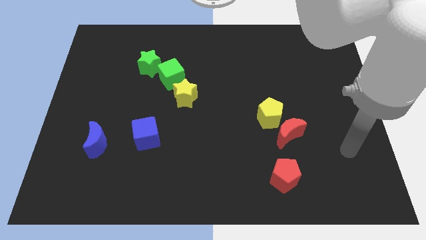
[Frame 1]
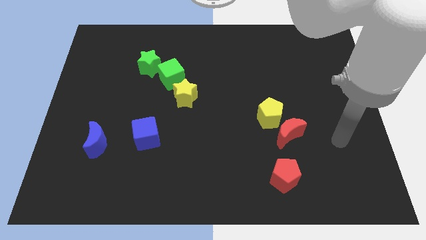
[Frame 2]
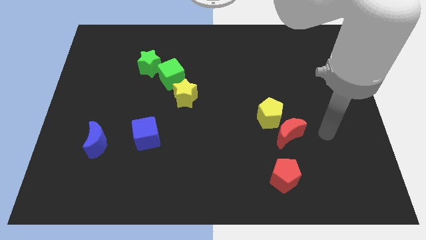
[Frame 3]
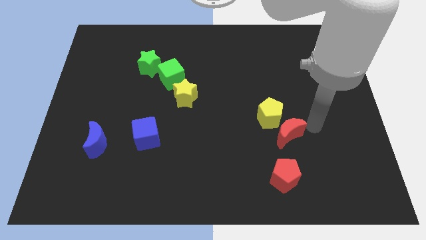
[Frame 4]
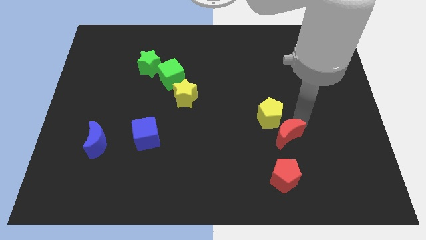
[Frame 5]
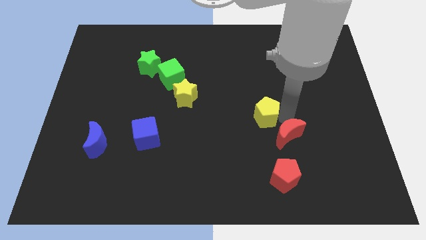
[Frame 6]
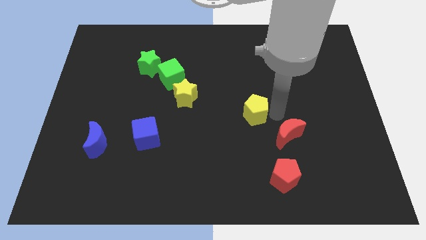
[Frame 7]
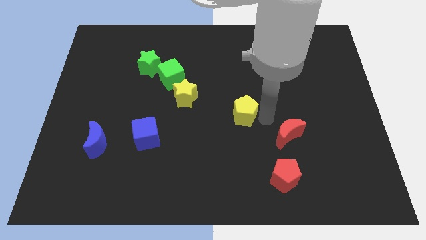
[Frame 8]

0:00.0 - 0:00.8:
separate the red moon from the yellow pentagon

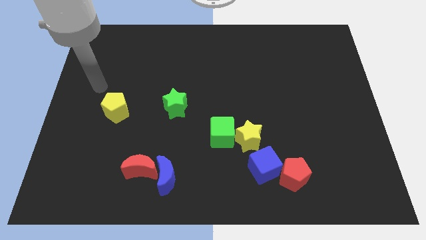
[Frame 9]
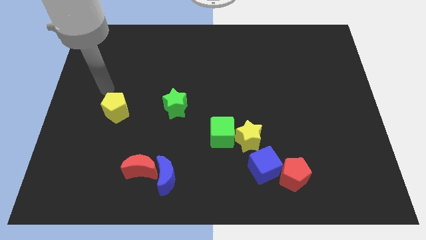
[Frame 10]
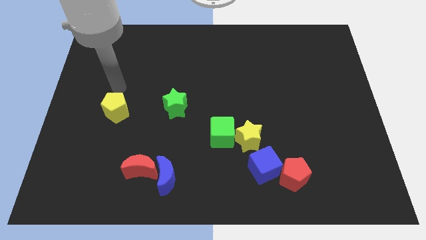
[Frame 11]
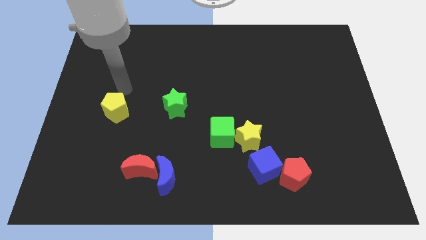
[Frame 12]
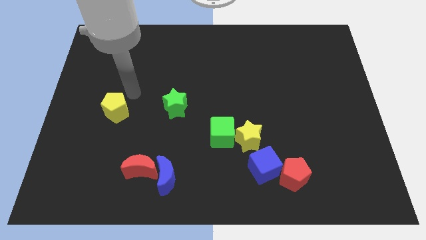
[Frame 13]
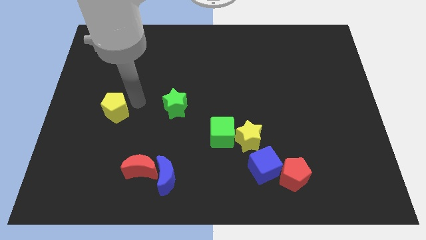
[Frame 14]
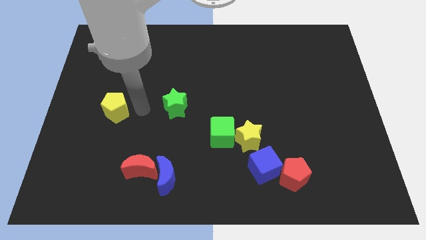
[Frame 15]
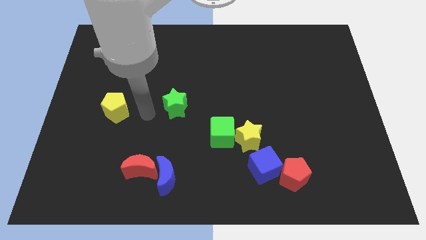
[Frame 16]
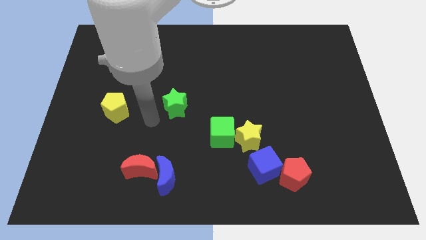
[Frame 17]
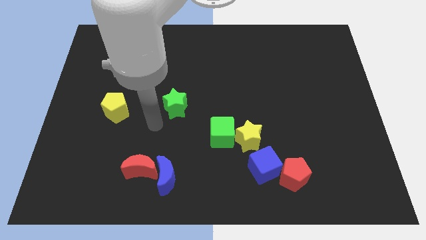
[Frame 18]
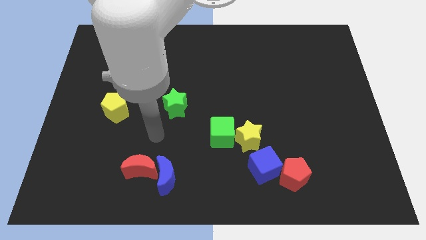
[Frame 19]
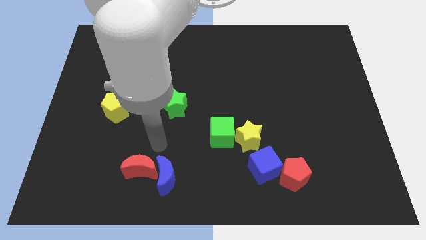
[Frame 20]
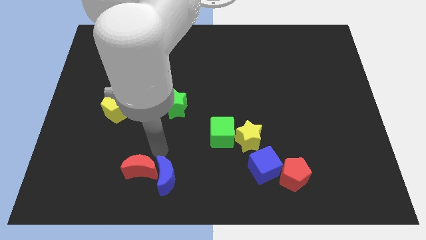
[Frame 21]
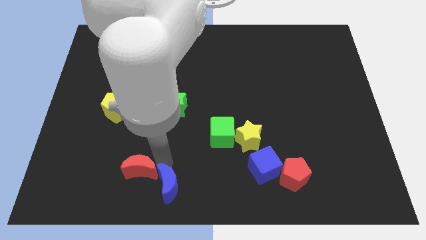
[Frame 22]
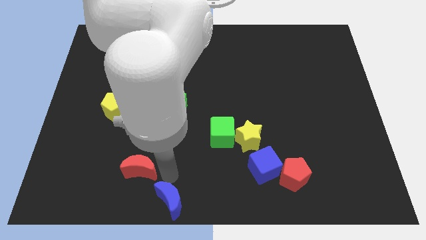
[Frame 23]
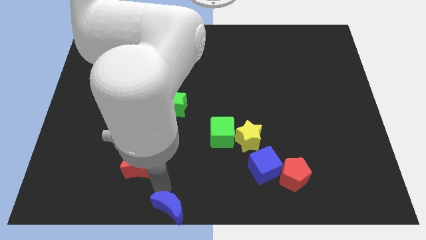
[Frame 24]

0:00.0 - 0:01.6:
separate the red moon from the blue moon

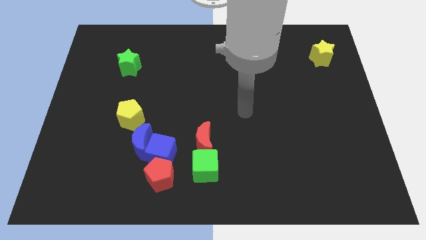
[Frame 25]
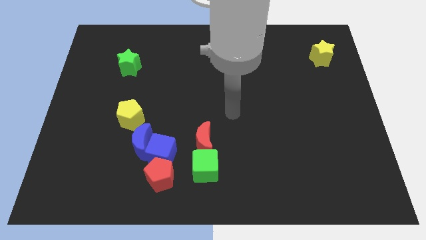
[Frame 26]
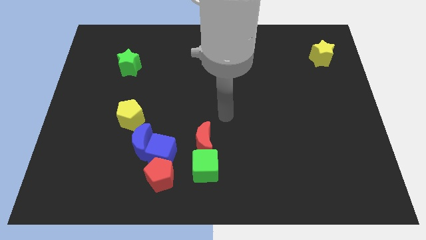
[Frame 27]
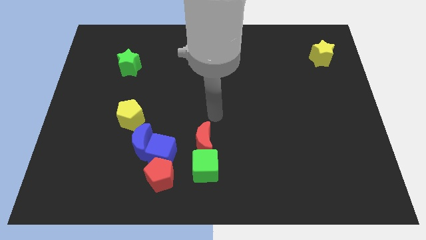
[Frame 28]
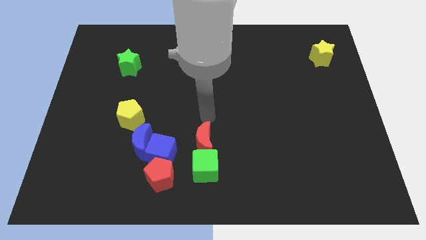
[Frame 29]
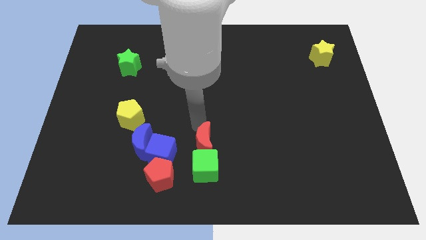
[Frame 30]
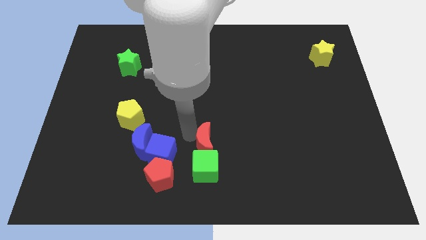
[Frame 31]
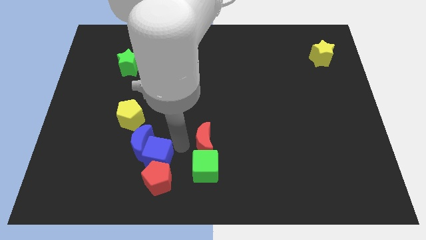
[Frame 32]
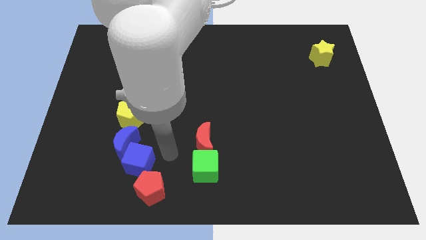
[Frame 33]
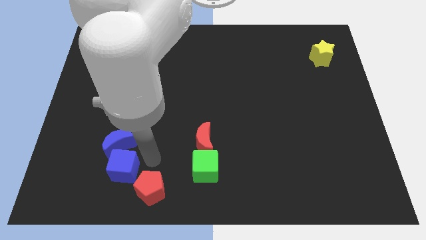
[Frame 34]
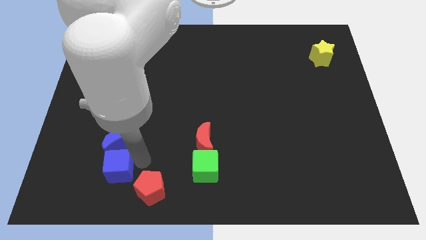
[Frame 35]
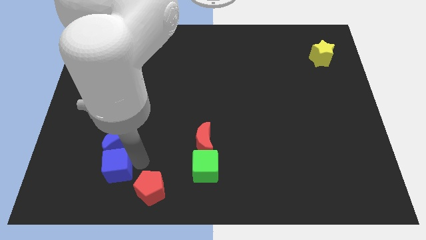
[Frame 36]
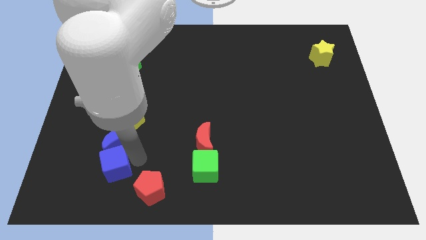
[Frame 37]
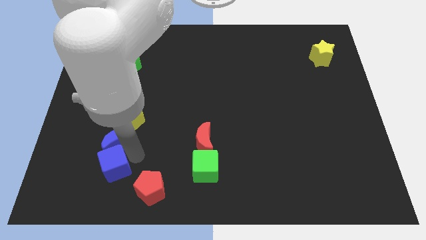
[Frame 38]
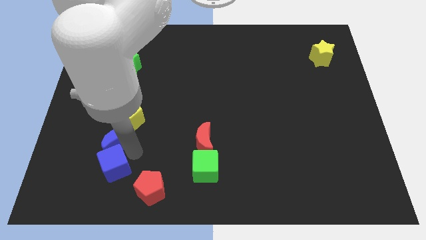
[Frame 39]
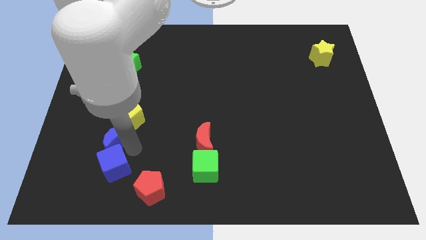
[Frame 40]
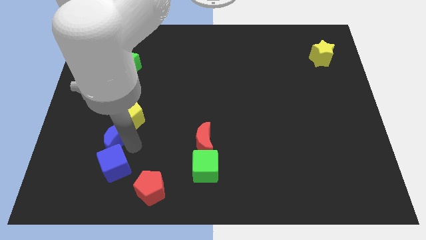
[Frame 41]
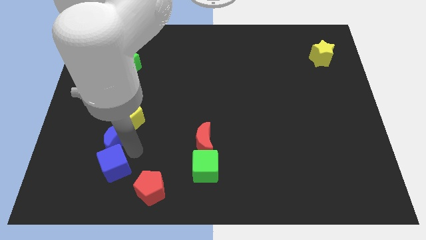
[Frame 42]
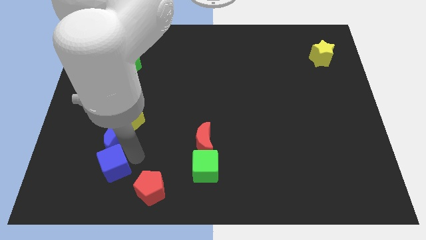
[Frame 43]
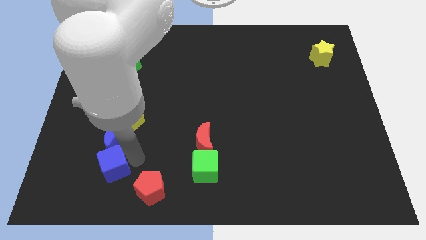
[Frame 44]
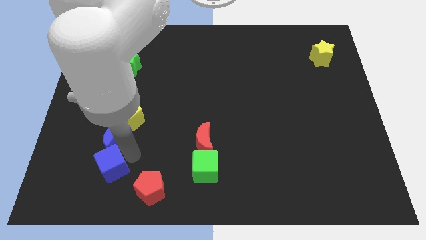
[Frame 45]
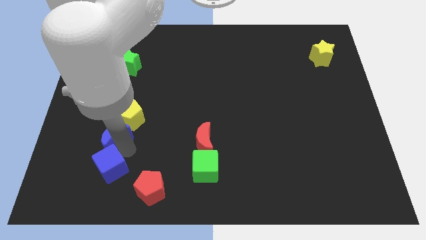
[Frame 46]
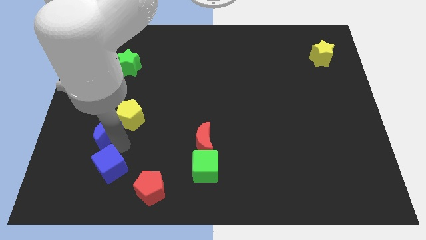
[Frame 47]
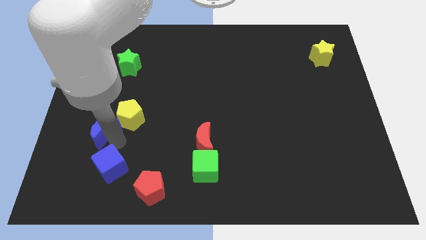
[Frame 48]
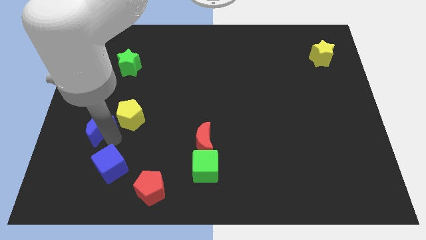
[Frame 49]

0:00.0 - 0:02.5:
separate the blue moon from the group of blocks

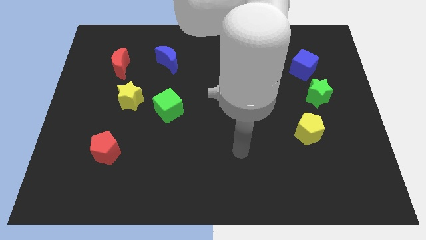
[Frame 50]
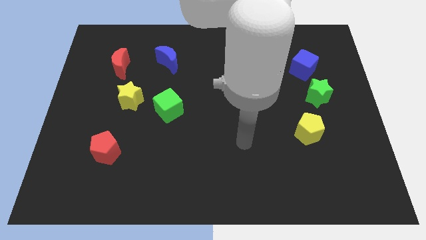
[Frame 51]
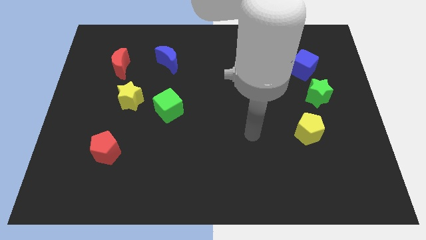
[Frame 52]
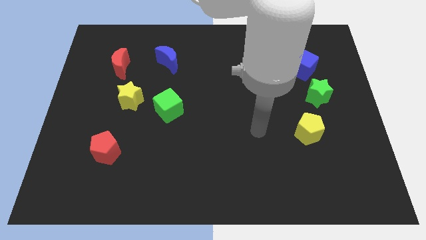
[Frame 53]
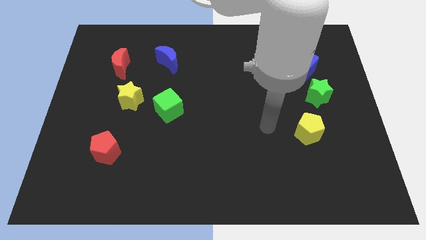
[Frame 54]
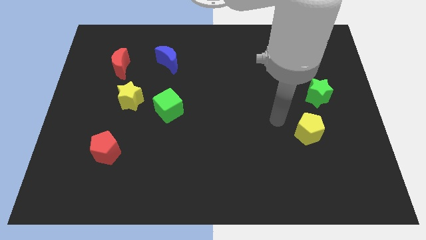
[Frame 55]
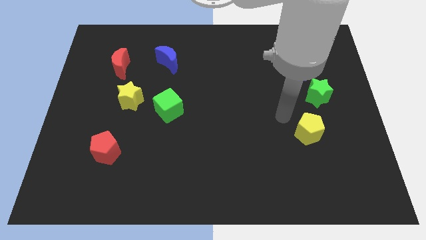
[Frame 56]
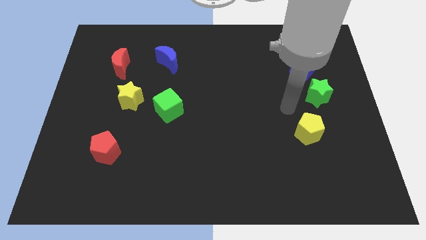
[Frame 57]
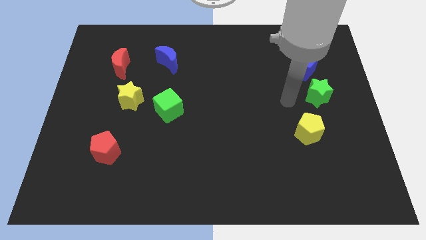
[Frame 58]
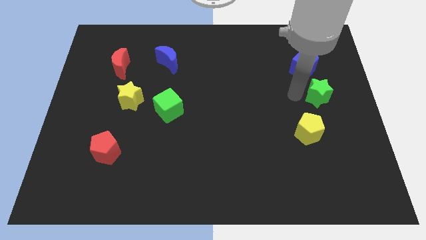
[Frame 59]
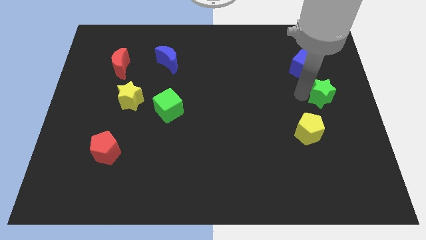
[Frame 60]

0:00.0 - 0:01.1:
pull the blue cube apart from the green star

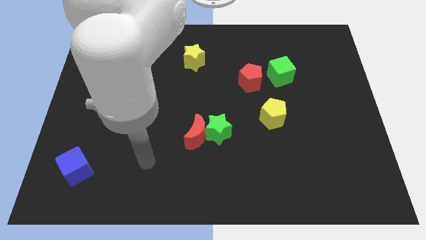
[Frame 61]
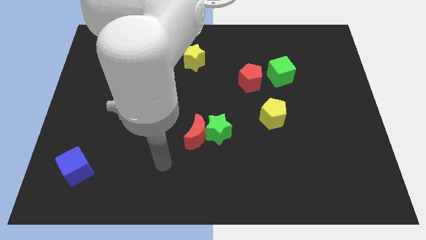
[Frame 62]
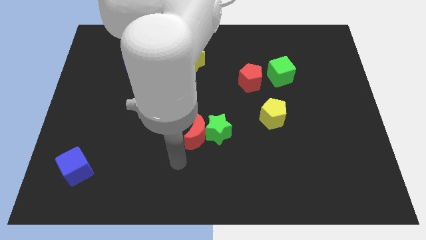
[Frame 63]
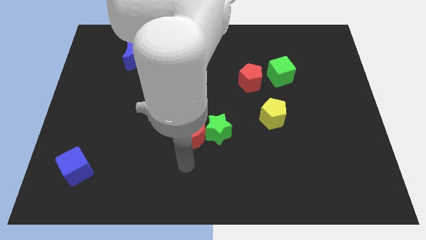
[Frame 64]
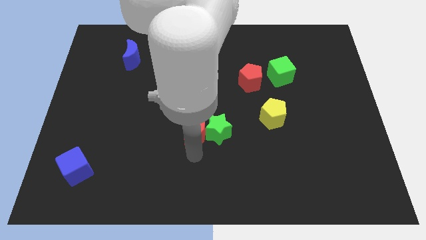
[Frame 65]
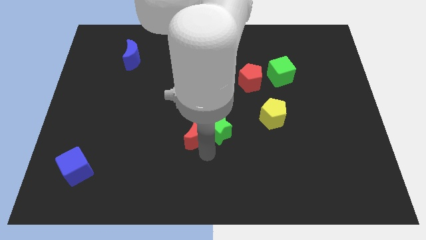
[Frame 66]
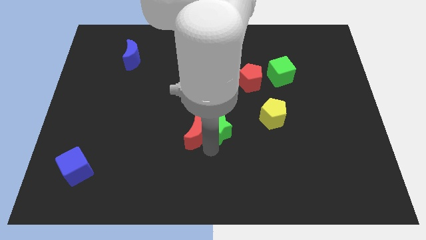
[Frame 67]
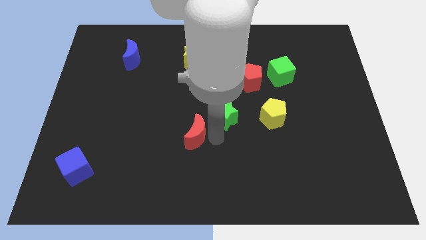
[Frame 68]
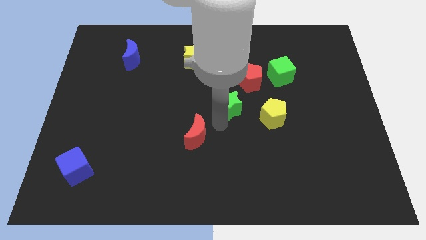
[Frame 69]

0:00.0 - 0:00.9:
move the red moon away from the green star

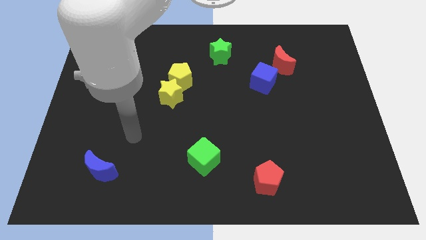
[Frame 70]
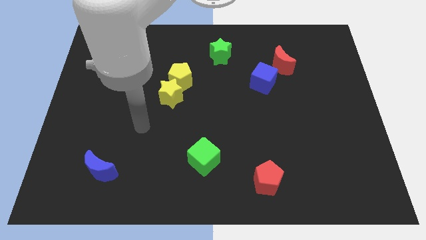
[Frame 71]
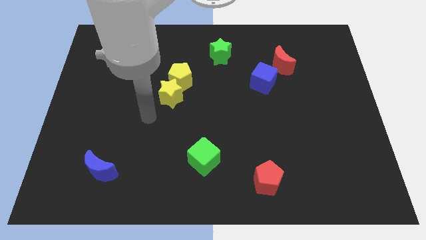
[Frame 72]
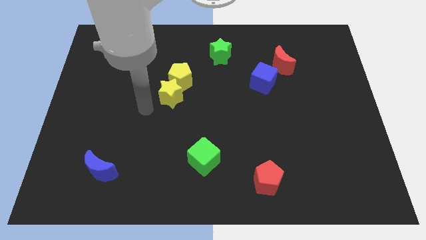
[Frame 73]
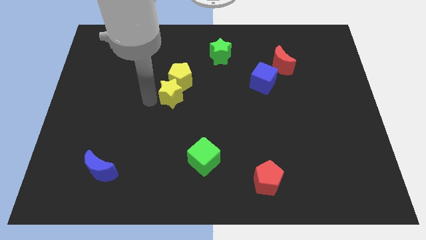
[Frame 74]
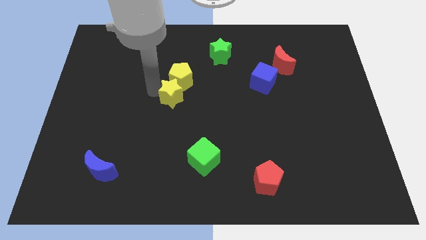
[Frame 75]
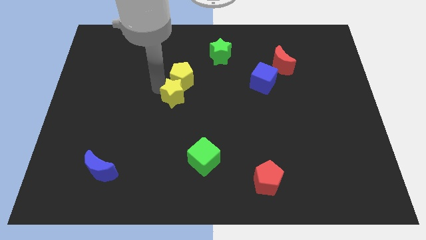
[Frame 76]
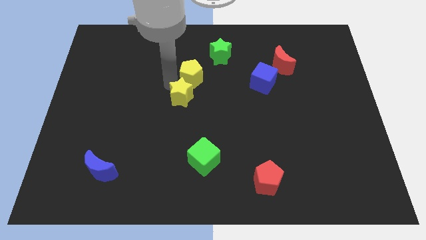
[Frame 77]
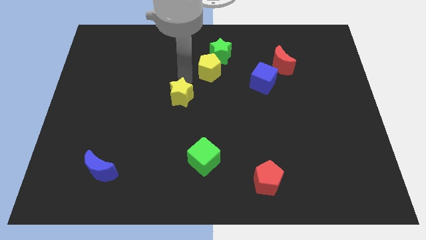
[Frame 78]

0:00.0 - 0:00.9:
separate the yellow star from the yellow pentagon

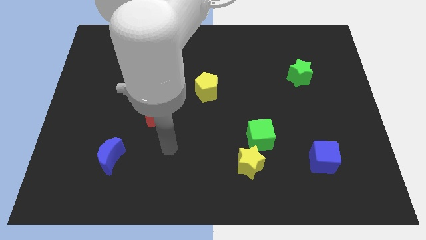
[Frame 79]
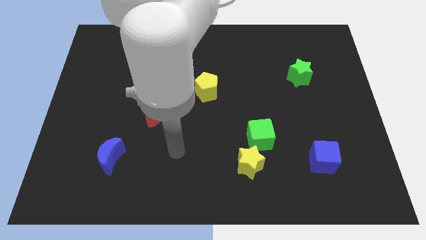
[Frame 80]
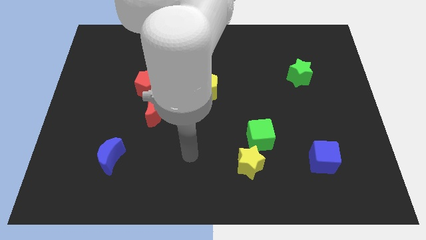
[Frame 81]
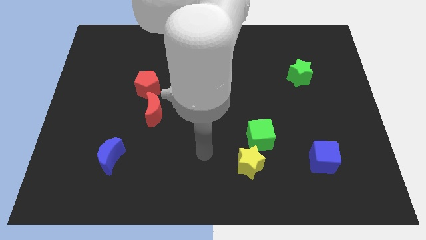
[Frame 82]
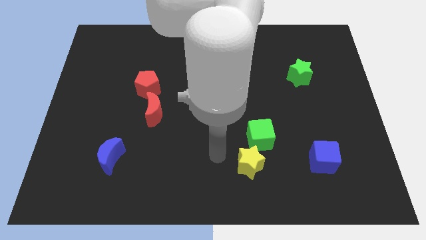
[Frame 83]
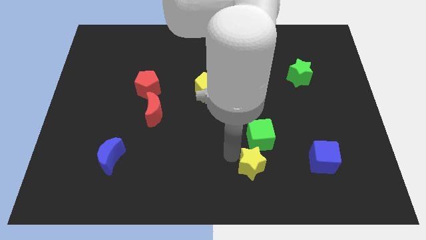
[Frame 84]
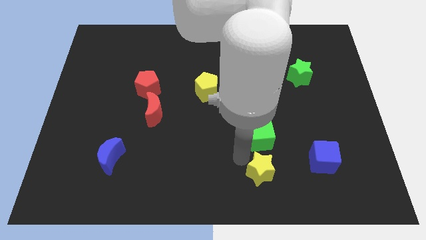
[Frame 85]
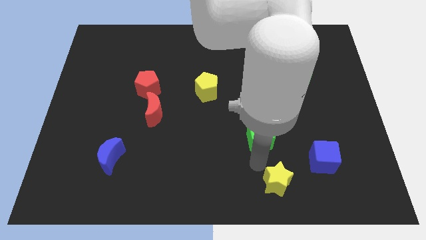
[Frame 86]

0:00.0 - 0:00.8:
separate the green cube from the yellow star

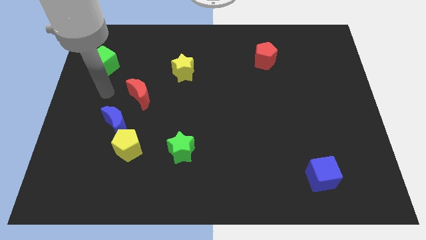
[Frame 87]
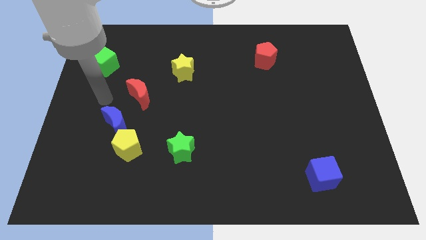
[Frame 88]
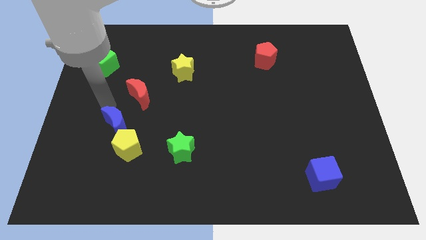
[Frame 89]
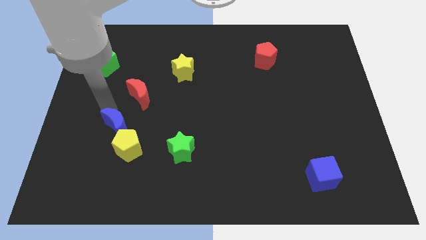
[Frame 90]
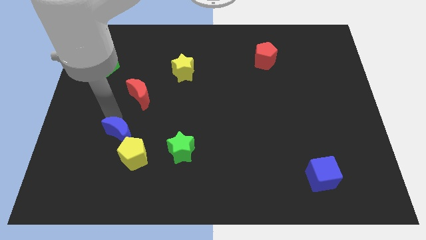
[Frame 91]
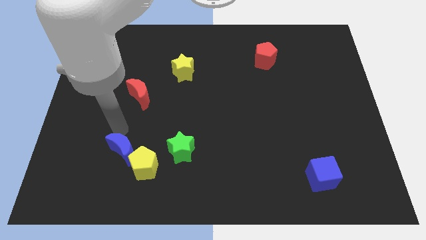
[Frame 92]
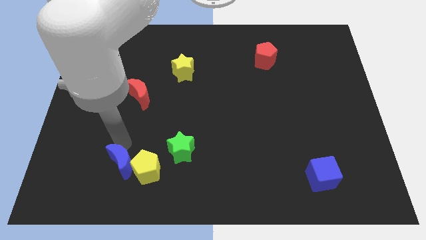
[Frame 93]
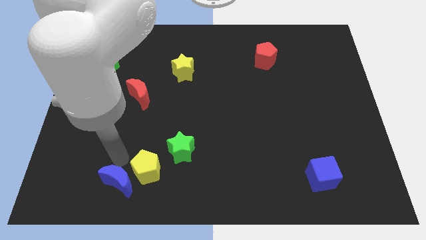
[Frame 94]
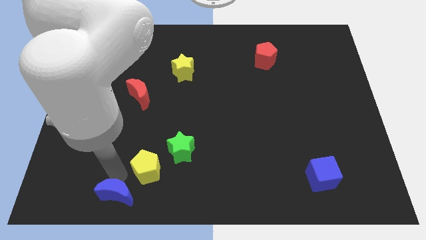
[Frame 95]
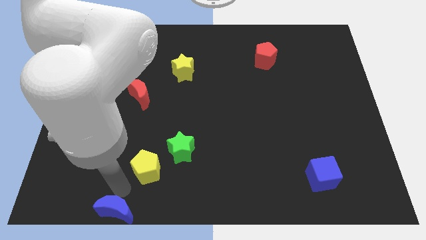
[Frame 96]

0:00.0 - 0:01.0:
separate the yellow pentagon from the blue moon
